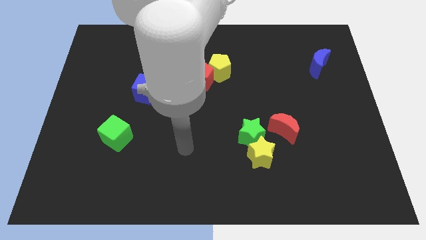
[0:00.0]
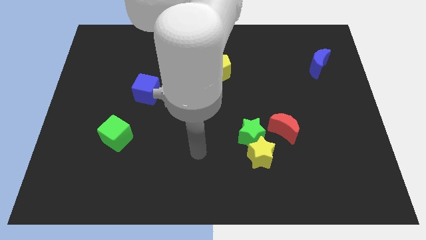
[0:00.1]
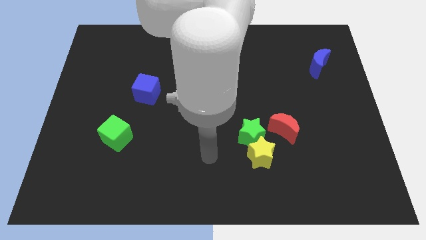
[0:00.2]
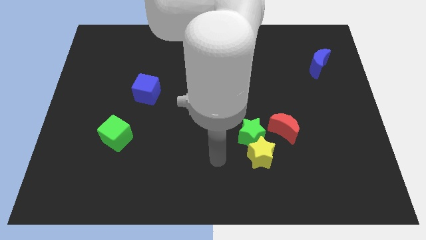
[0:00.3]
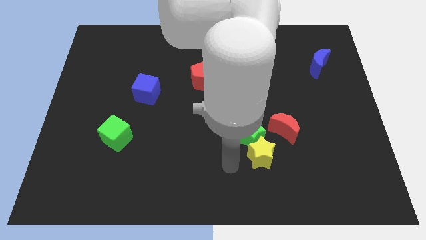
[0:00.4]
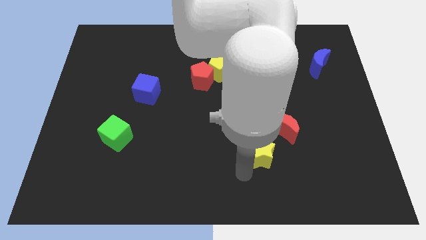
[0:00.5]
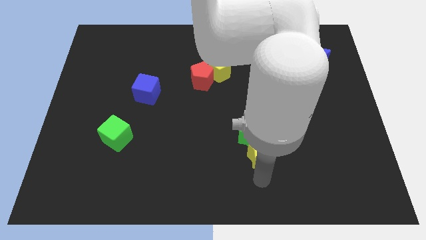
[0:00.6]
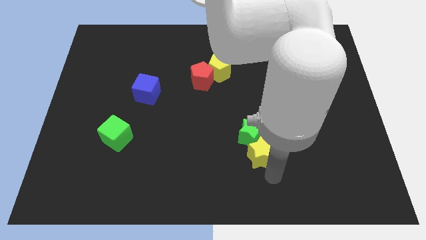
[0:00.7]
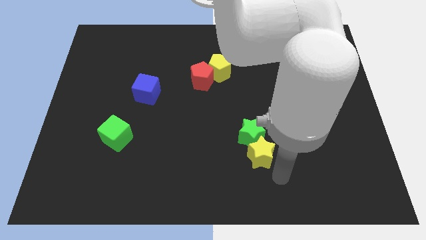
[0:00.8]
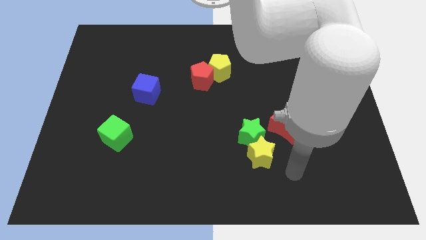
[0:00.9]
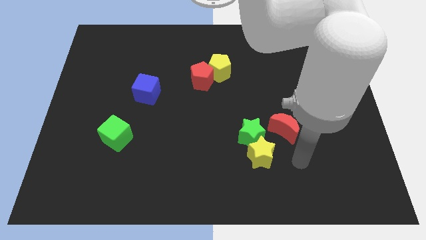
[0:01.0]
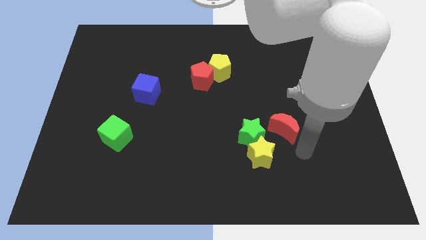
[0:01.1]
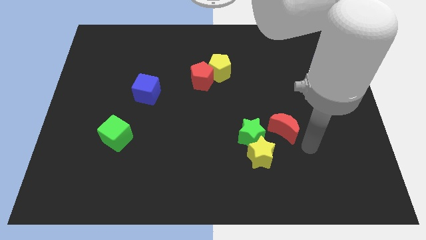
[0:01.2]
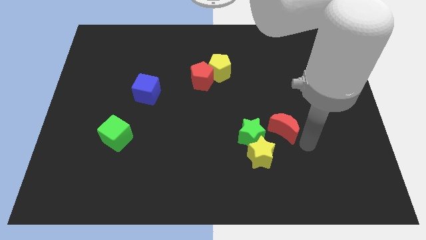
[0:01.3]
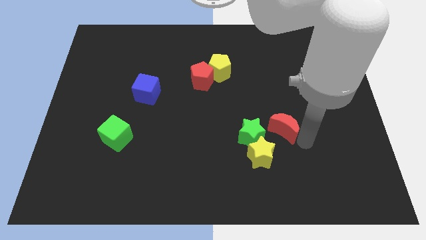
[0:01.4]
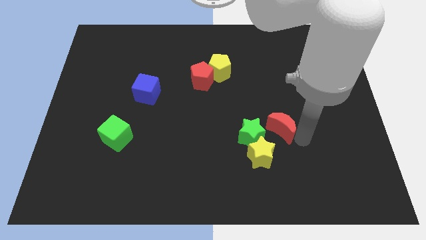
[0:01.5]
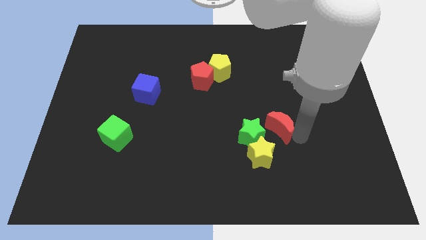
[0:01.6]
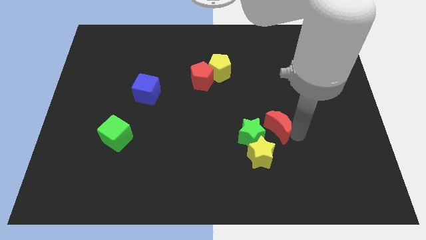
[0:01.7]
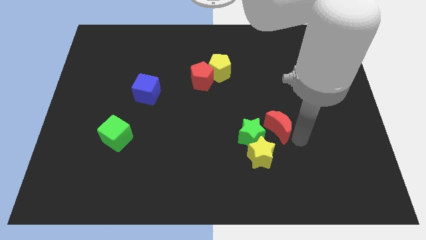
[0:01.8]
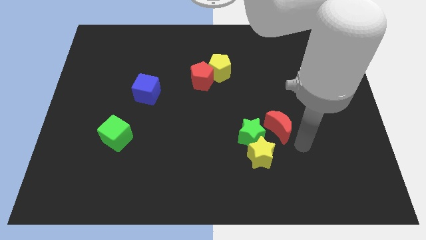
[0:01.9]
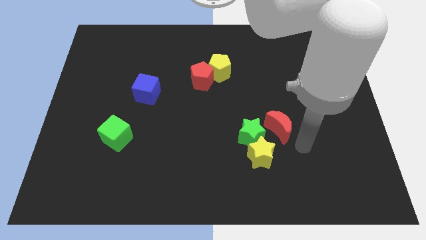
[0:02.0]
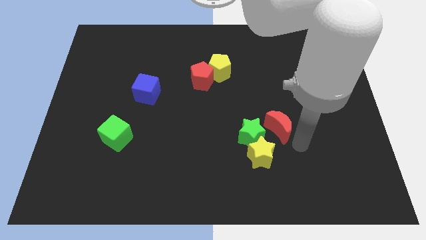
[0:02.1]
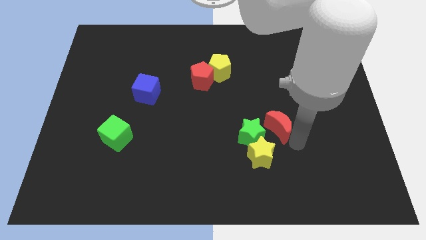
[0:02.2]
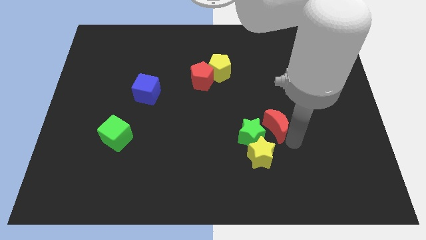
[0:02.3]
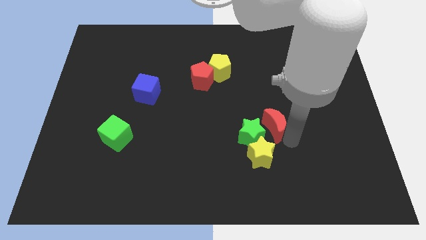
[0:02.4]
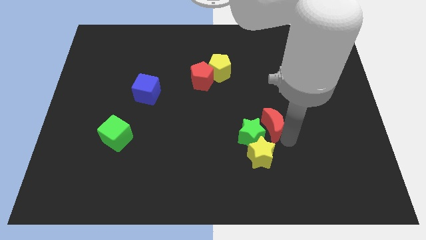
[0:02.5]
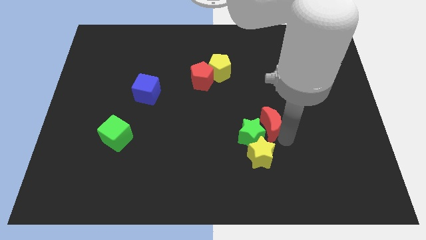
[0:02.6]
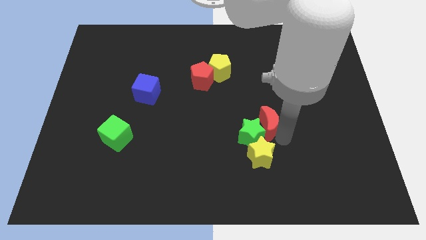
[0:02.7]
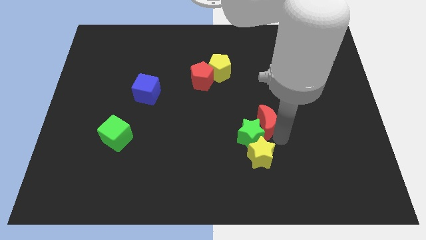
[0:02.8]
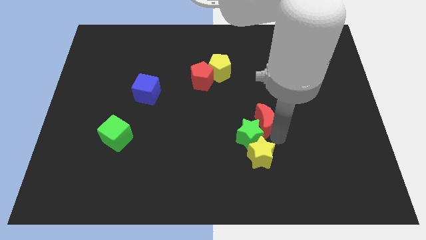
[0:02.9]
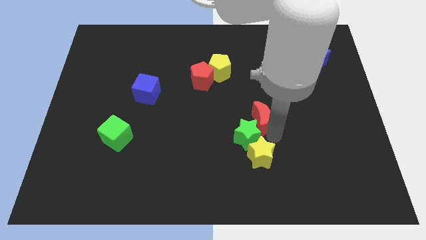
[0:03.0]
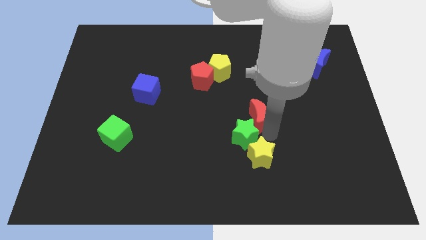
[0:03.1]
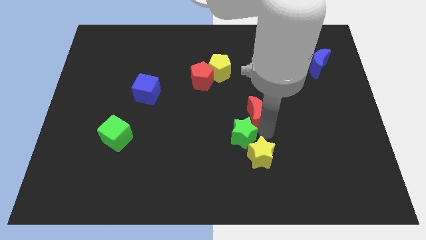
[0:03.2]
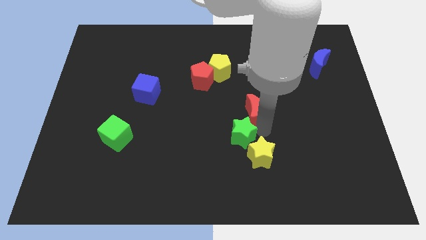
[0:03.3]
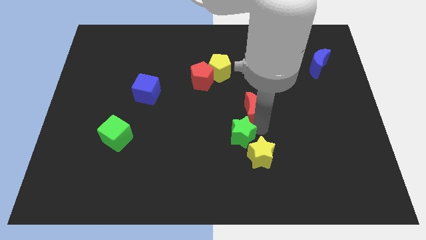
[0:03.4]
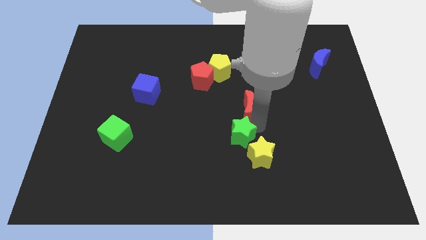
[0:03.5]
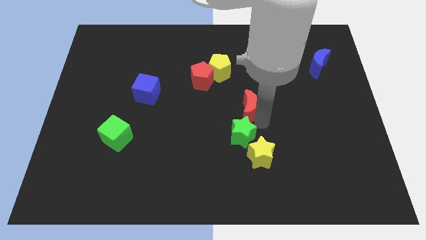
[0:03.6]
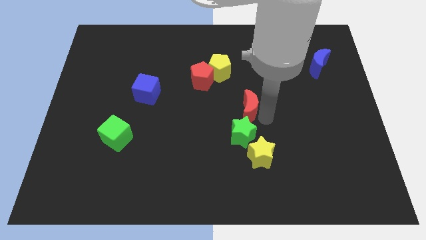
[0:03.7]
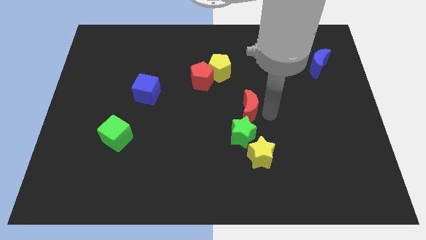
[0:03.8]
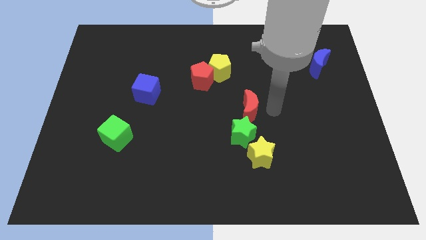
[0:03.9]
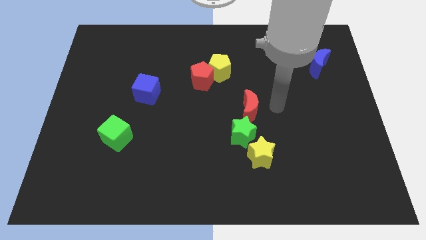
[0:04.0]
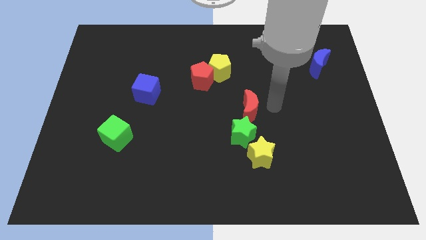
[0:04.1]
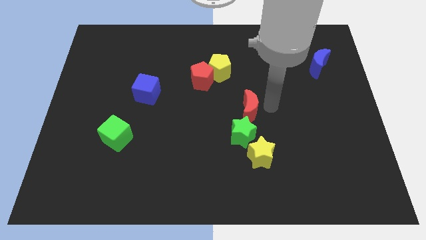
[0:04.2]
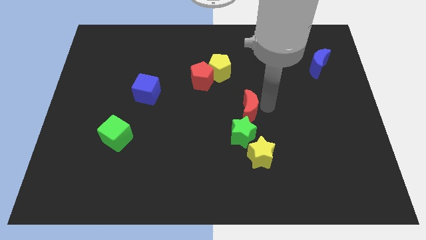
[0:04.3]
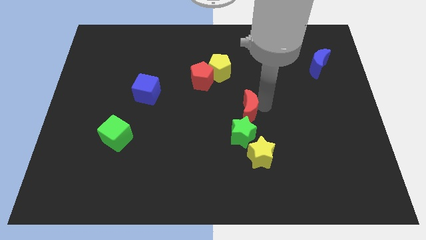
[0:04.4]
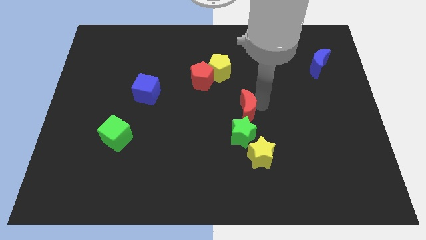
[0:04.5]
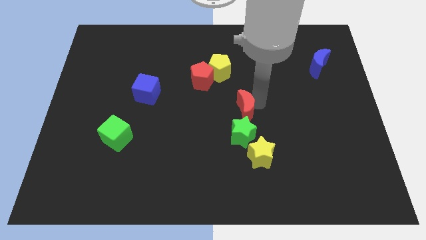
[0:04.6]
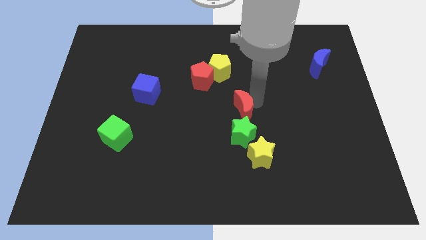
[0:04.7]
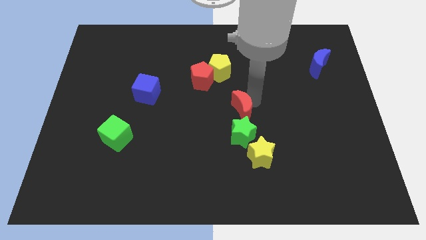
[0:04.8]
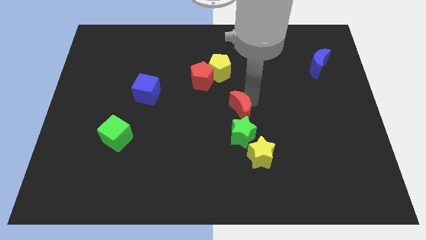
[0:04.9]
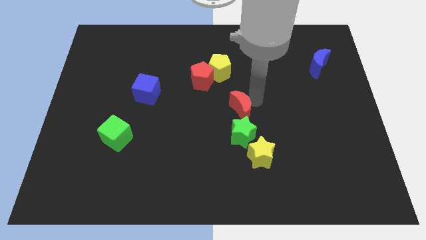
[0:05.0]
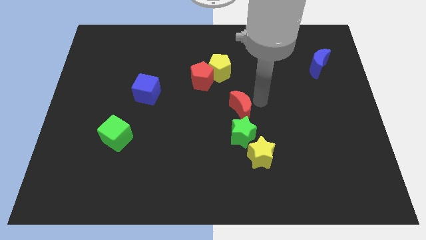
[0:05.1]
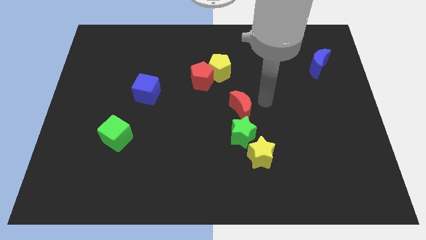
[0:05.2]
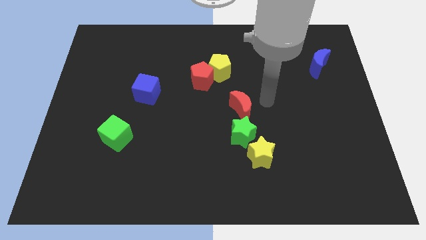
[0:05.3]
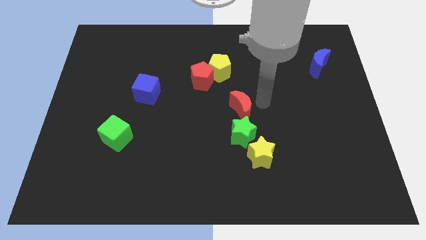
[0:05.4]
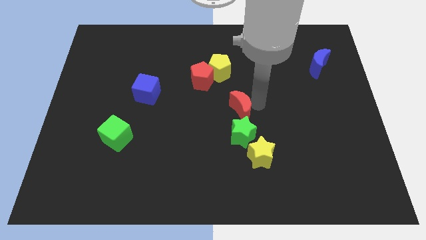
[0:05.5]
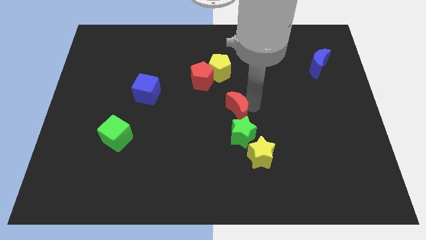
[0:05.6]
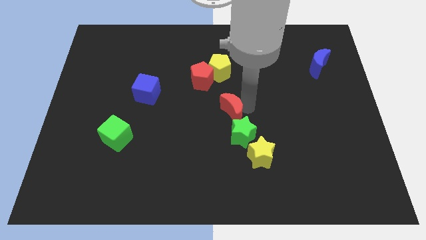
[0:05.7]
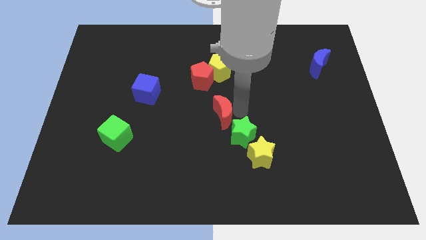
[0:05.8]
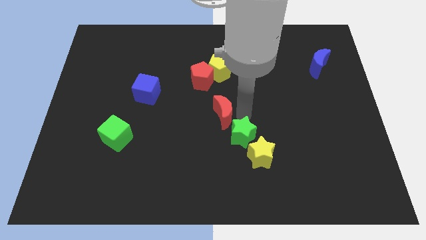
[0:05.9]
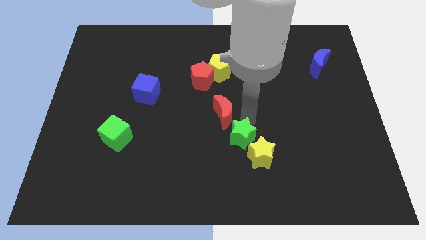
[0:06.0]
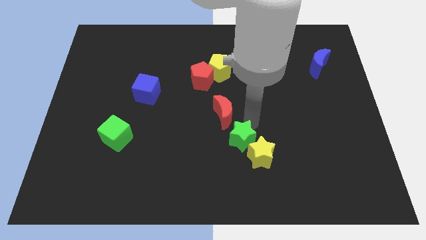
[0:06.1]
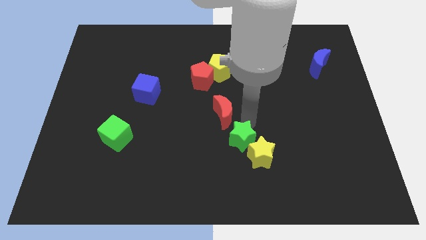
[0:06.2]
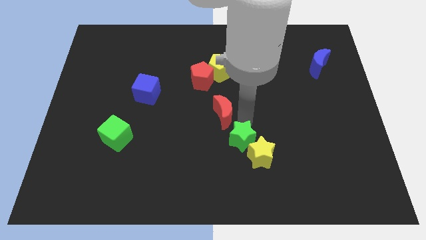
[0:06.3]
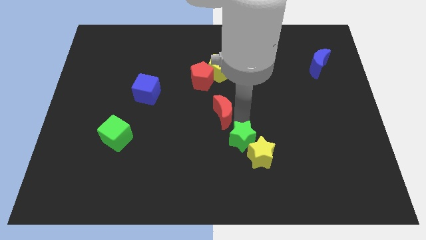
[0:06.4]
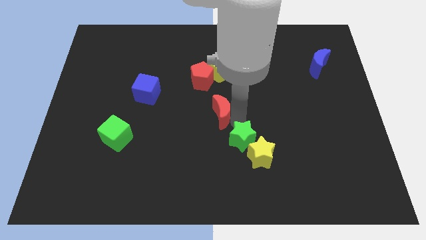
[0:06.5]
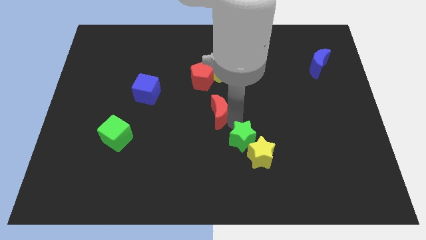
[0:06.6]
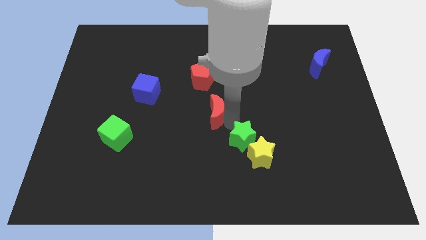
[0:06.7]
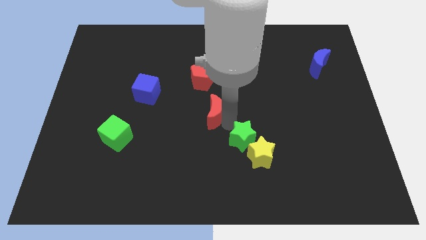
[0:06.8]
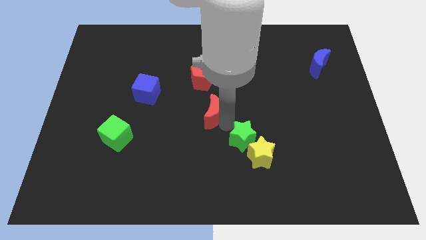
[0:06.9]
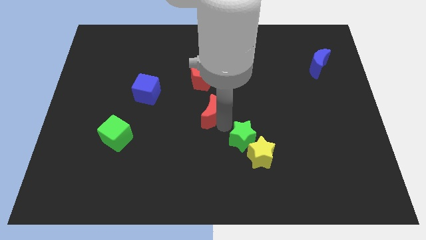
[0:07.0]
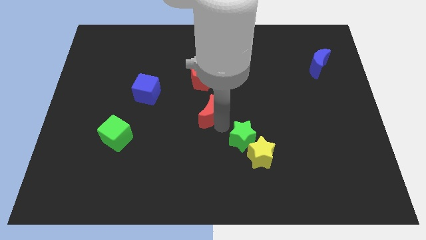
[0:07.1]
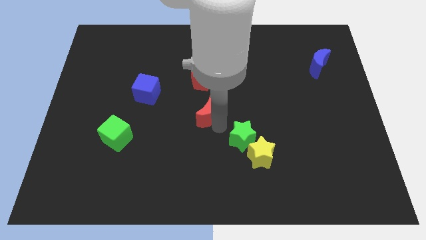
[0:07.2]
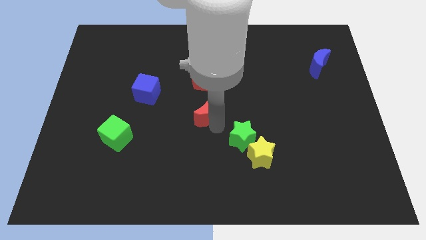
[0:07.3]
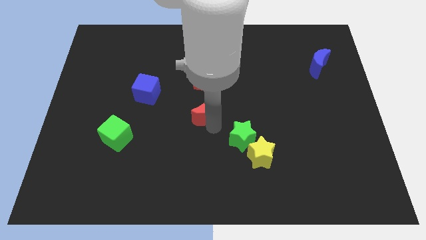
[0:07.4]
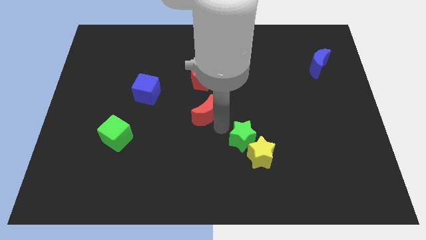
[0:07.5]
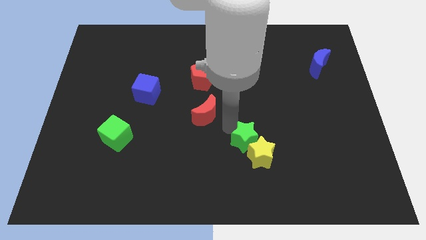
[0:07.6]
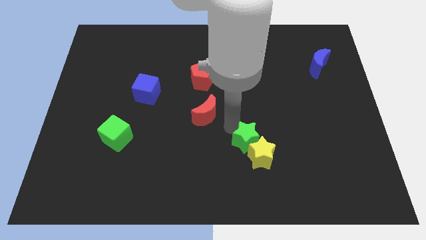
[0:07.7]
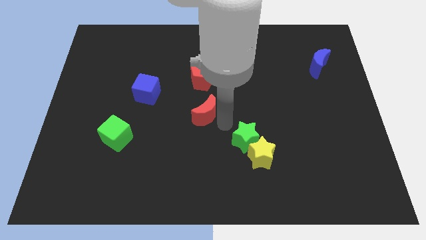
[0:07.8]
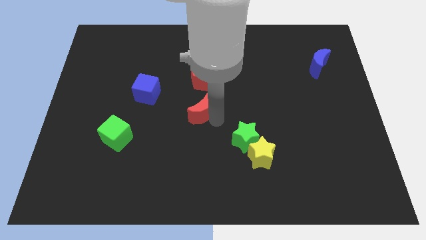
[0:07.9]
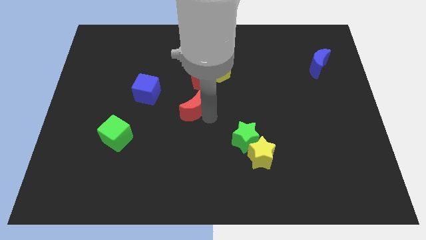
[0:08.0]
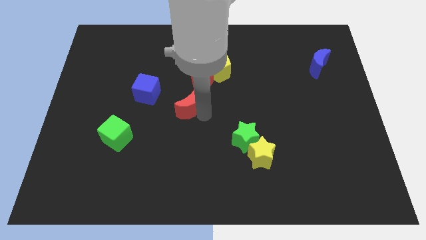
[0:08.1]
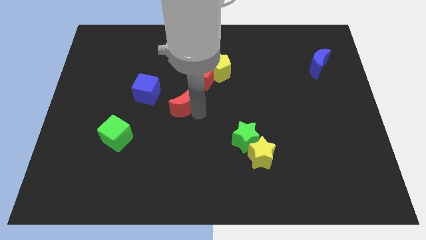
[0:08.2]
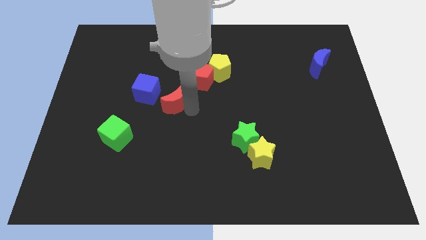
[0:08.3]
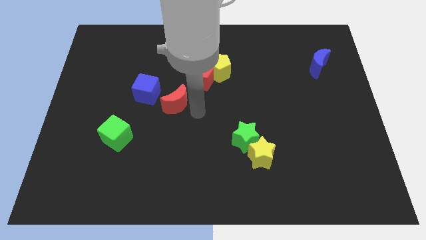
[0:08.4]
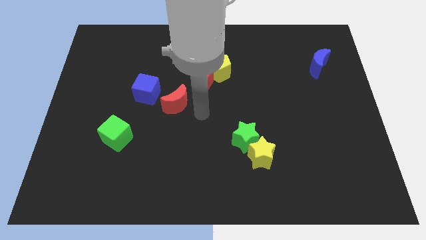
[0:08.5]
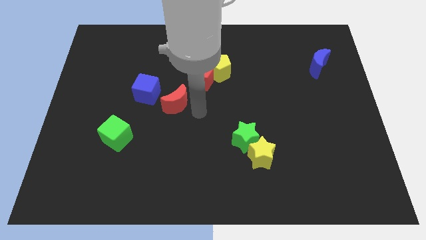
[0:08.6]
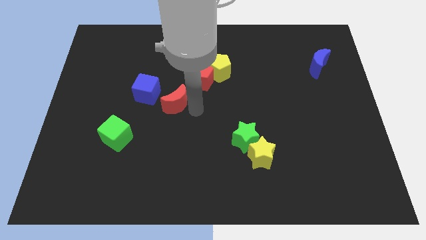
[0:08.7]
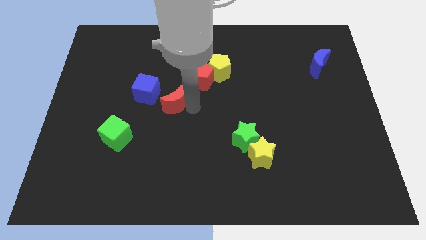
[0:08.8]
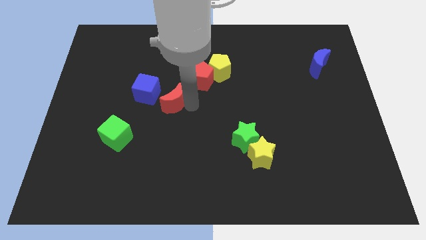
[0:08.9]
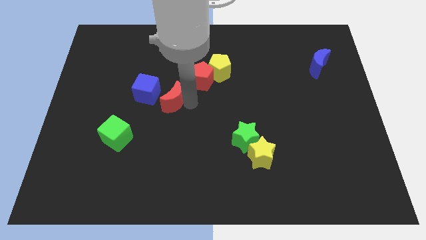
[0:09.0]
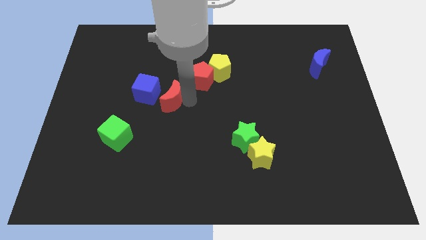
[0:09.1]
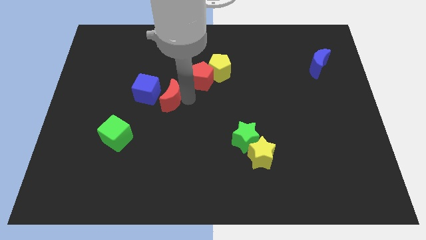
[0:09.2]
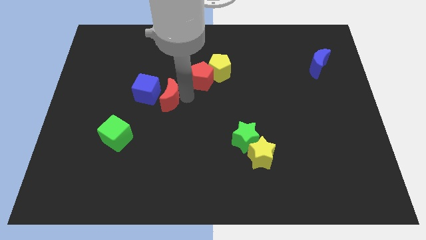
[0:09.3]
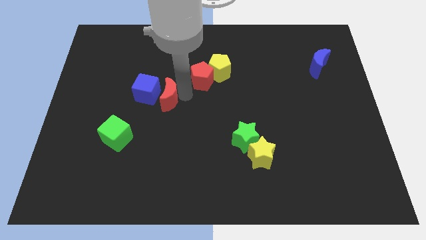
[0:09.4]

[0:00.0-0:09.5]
put the red moon towards the blue cube
